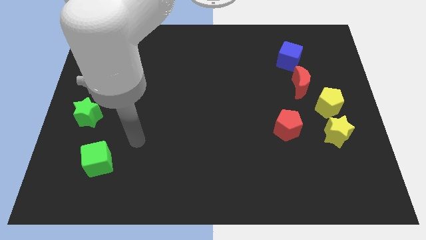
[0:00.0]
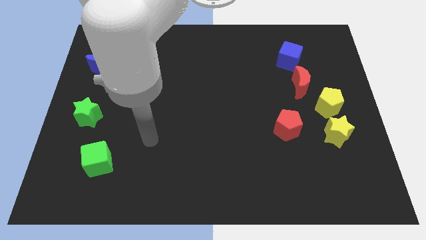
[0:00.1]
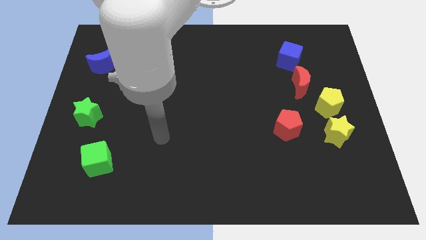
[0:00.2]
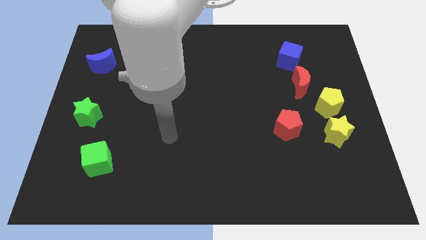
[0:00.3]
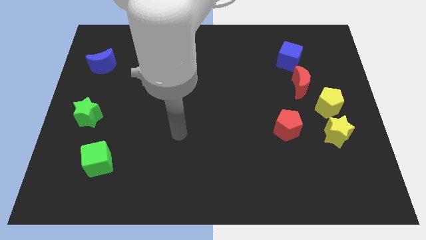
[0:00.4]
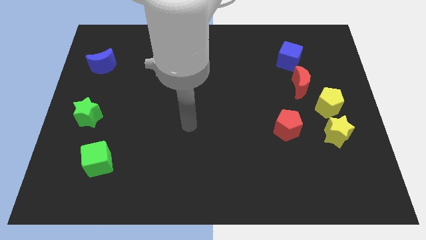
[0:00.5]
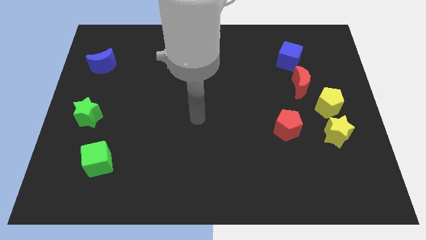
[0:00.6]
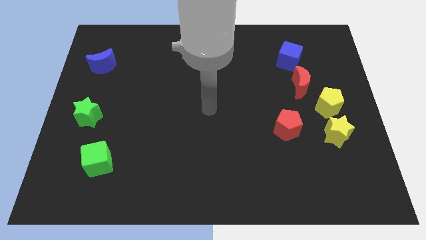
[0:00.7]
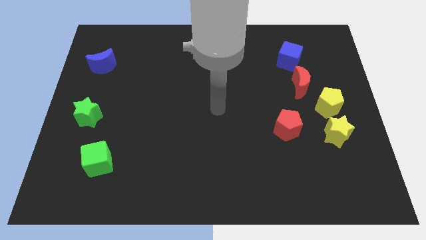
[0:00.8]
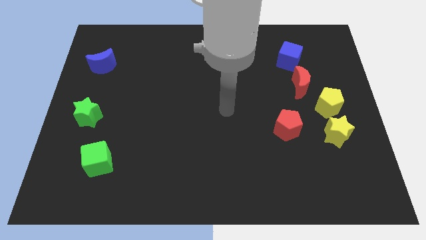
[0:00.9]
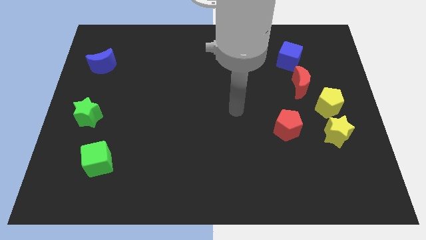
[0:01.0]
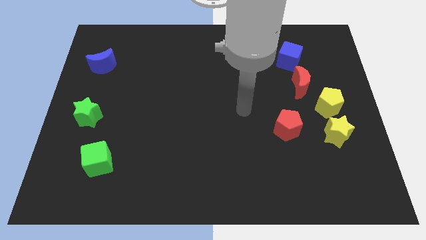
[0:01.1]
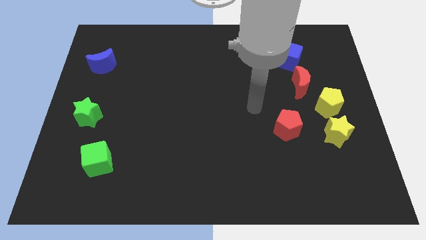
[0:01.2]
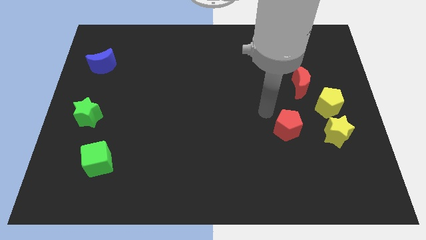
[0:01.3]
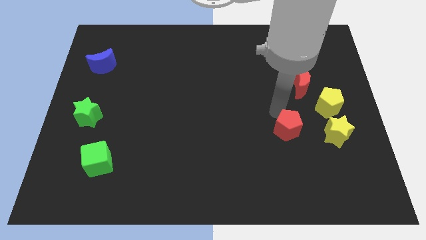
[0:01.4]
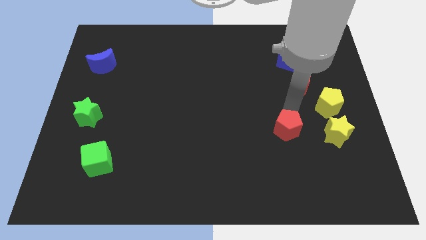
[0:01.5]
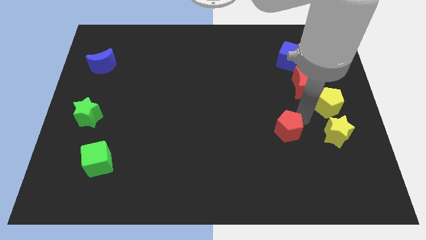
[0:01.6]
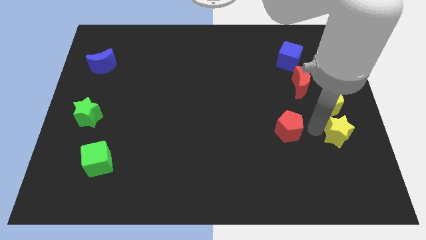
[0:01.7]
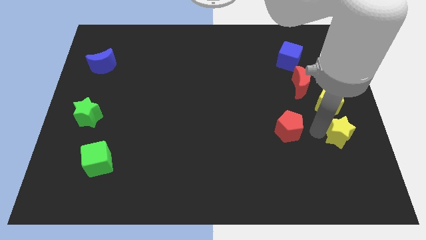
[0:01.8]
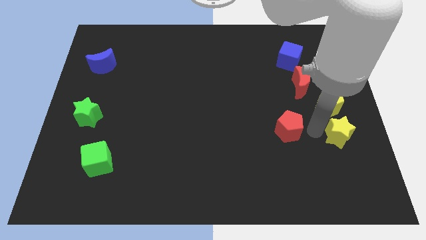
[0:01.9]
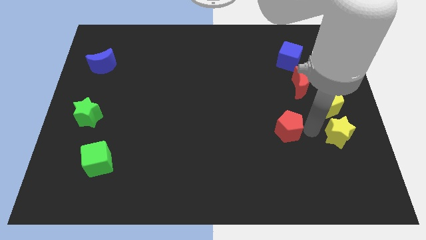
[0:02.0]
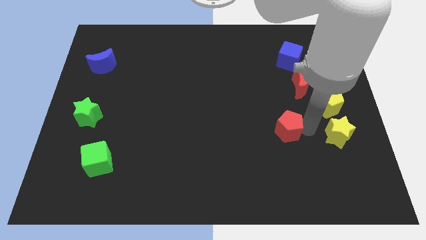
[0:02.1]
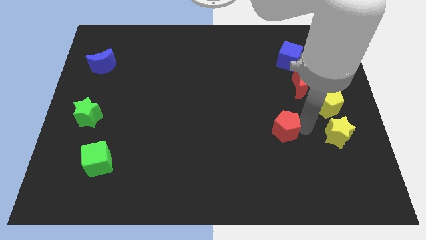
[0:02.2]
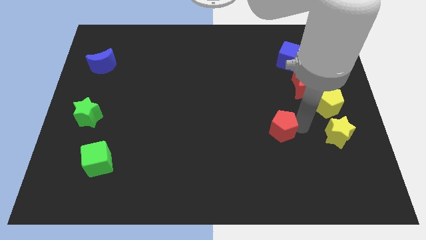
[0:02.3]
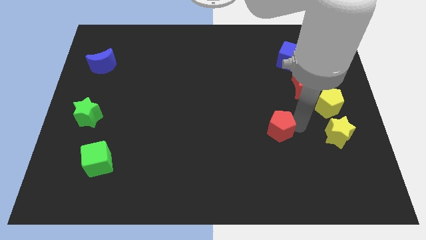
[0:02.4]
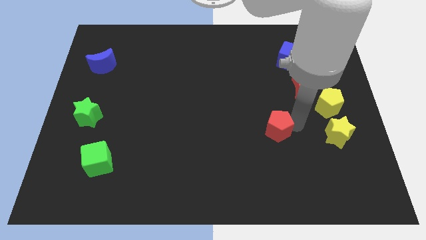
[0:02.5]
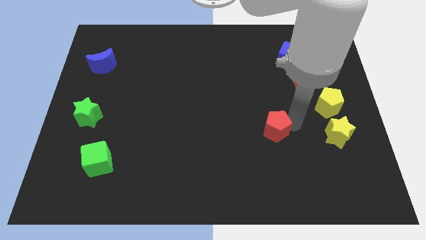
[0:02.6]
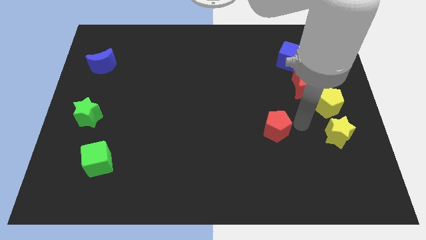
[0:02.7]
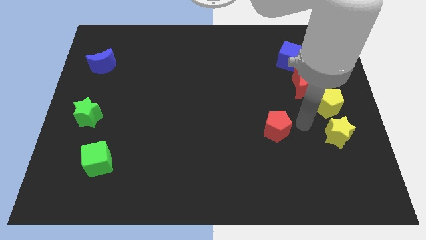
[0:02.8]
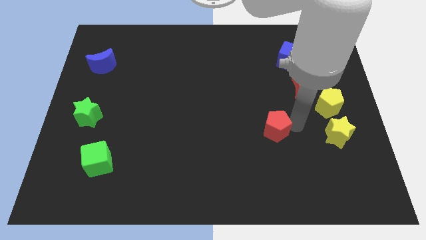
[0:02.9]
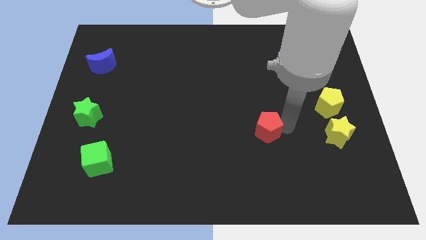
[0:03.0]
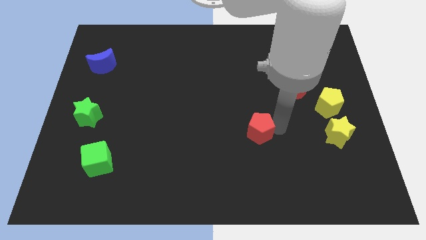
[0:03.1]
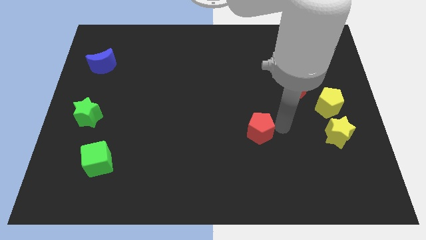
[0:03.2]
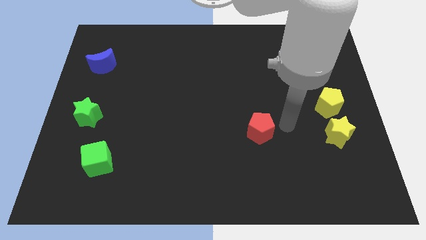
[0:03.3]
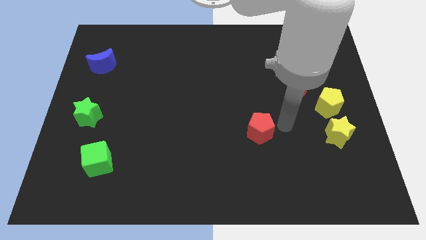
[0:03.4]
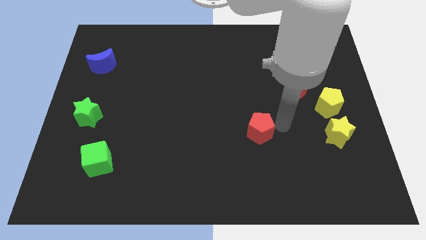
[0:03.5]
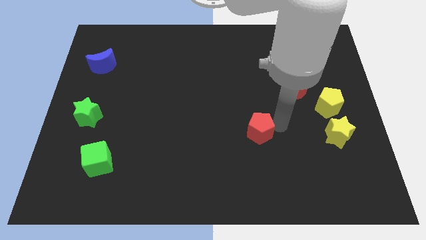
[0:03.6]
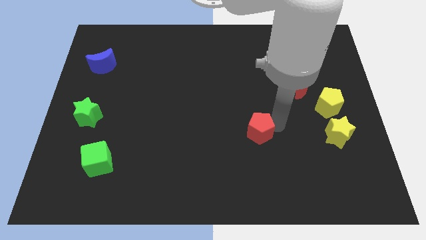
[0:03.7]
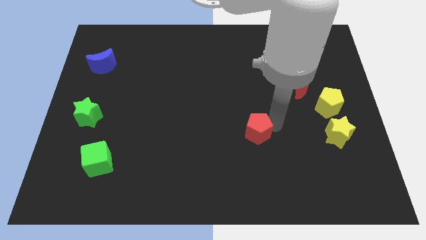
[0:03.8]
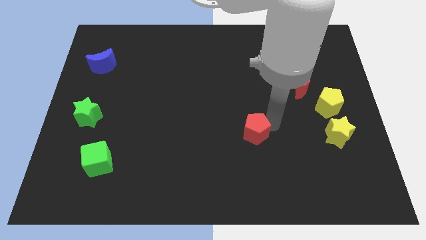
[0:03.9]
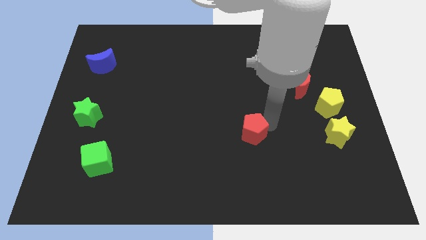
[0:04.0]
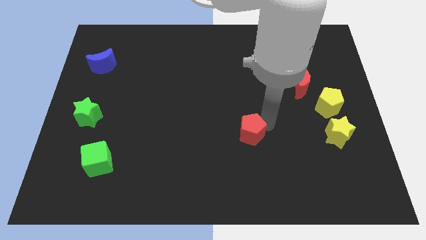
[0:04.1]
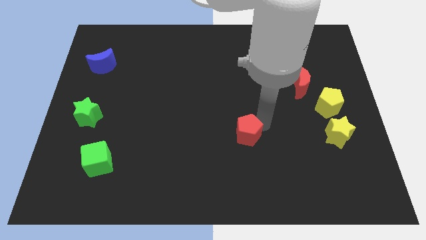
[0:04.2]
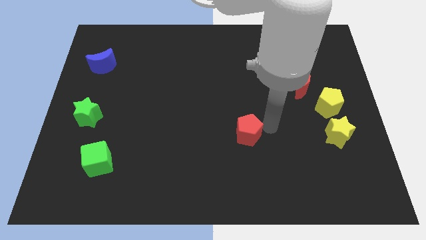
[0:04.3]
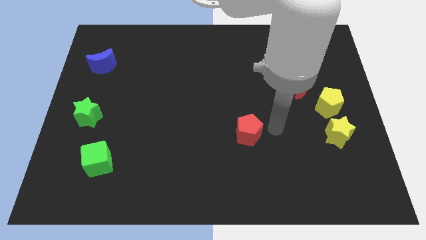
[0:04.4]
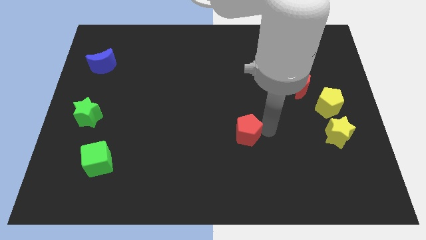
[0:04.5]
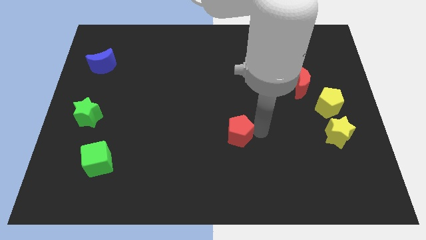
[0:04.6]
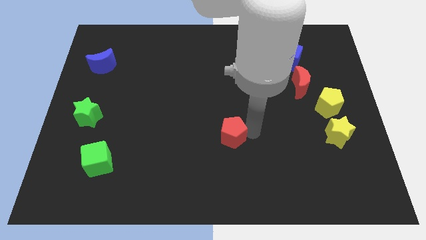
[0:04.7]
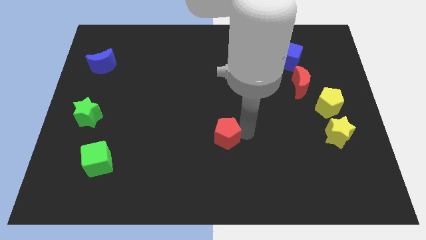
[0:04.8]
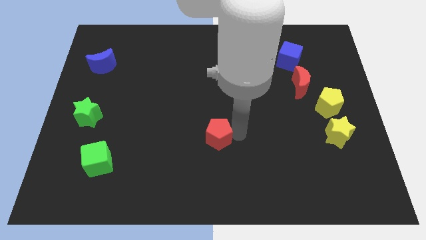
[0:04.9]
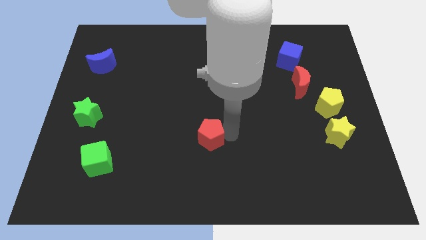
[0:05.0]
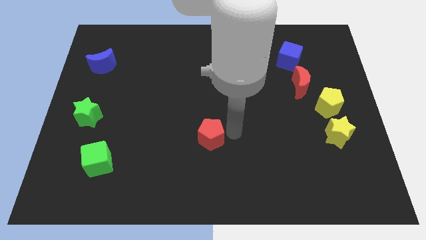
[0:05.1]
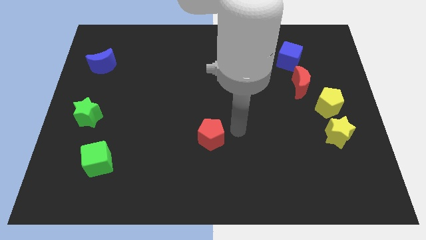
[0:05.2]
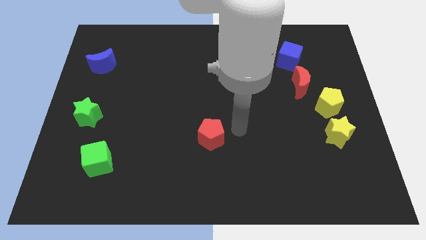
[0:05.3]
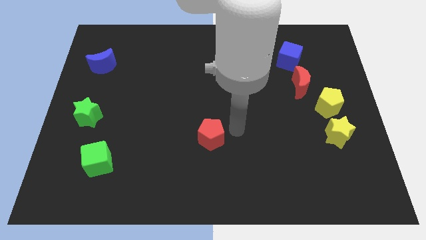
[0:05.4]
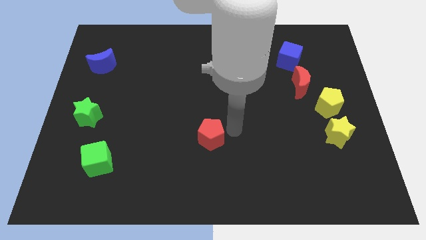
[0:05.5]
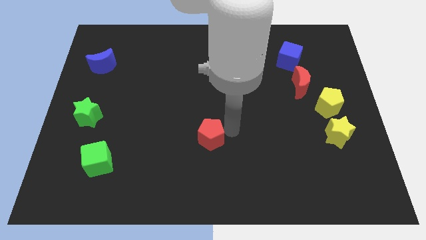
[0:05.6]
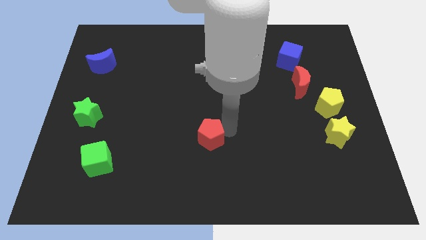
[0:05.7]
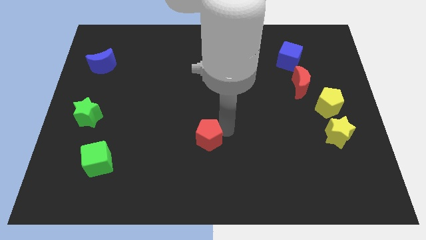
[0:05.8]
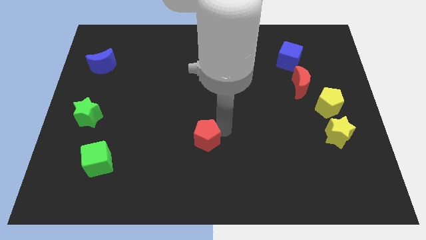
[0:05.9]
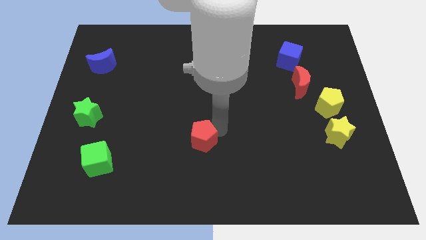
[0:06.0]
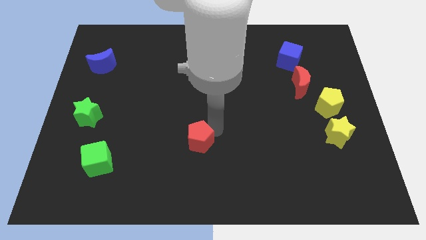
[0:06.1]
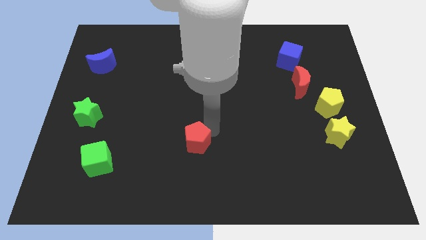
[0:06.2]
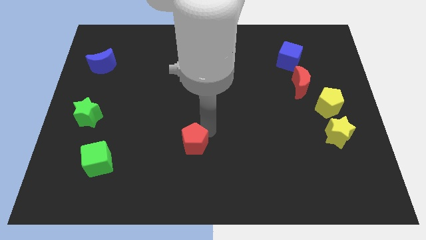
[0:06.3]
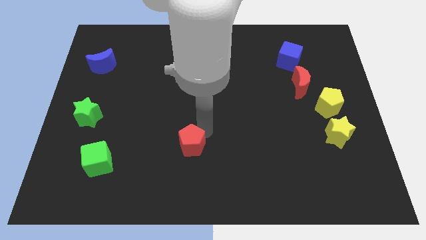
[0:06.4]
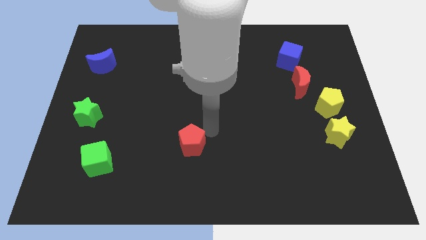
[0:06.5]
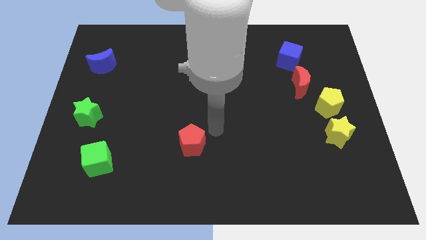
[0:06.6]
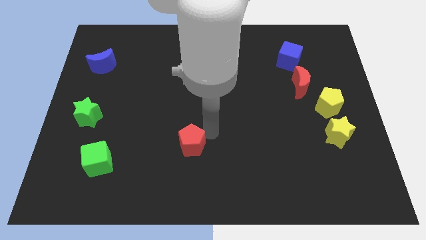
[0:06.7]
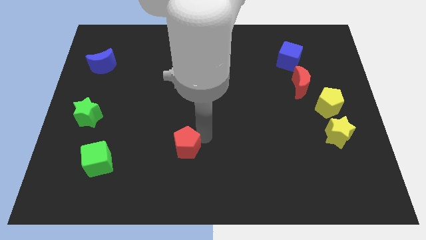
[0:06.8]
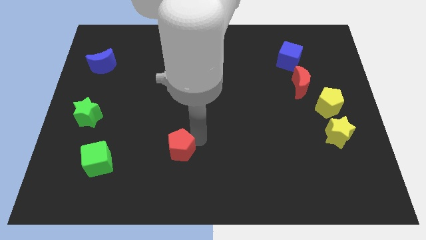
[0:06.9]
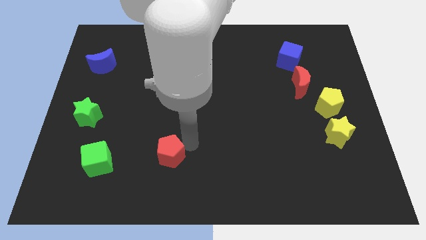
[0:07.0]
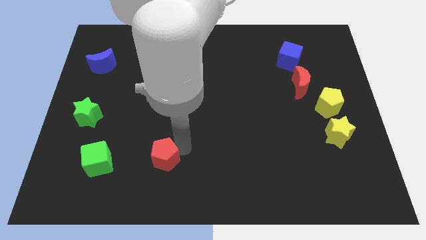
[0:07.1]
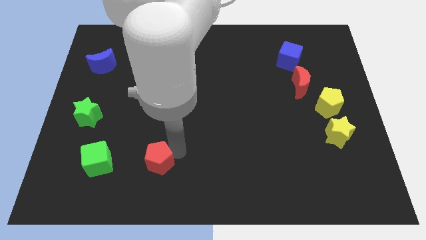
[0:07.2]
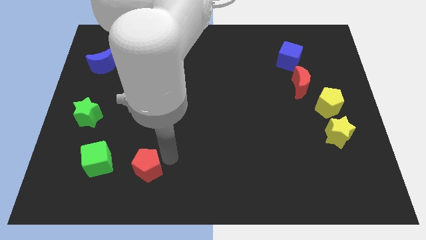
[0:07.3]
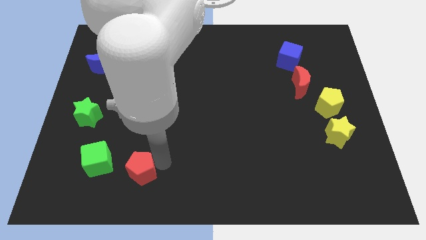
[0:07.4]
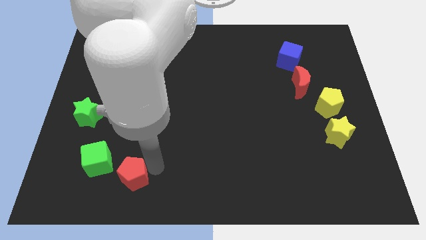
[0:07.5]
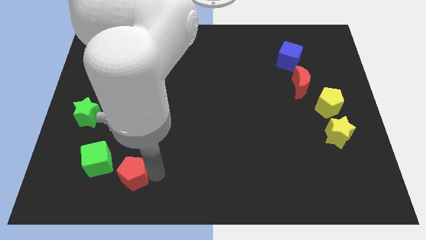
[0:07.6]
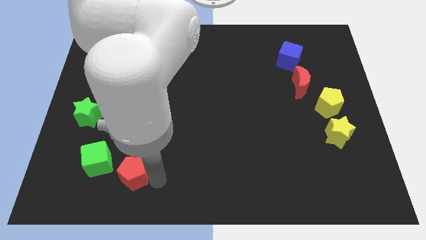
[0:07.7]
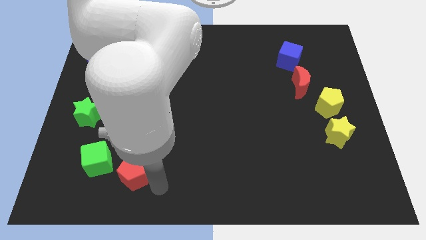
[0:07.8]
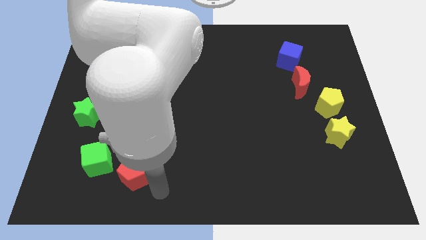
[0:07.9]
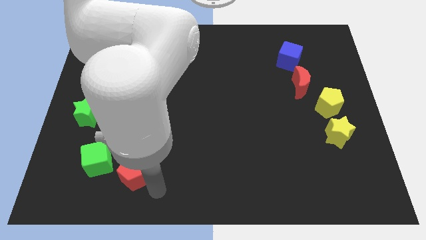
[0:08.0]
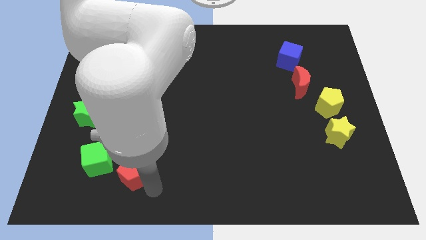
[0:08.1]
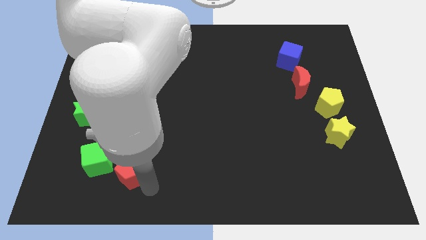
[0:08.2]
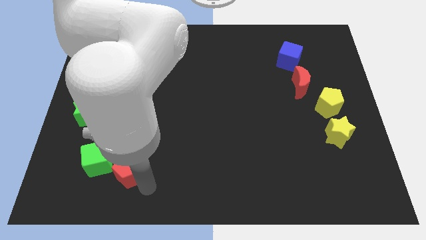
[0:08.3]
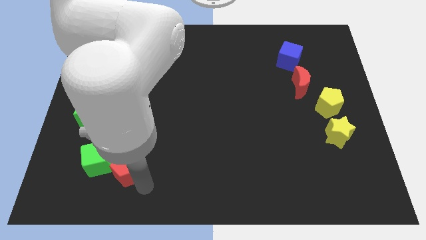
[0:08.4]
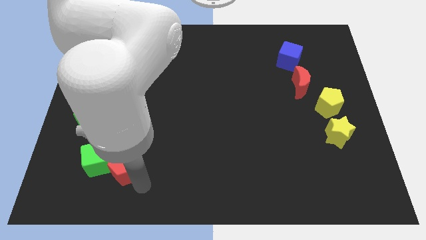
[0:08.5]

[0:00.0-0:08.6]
put the red pentagon next to the green cube
